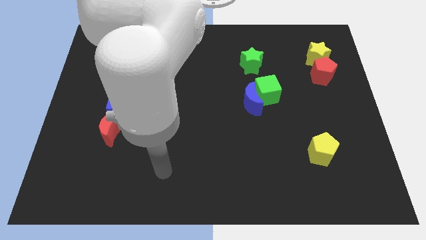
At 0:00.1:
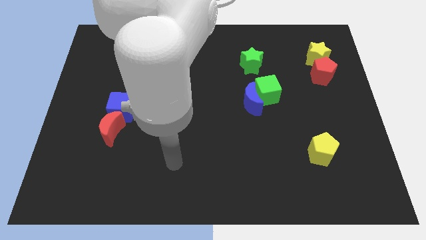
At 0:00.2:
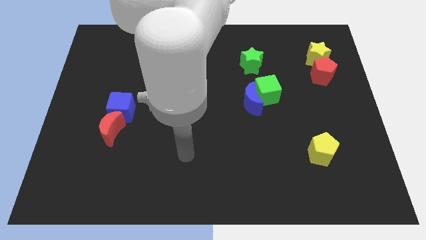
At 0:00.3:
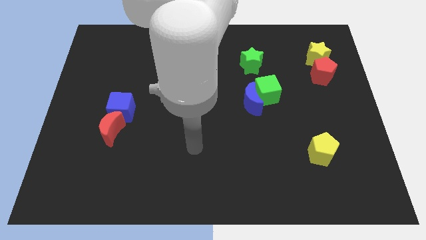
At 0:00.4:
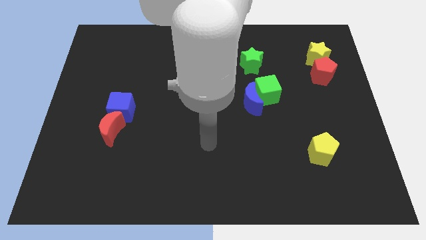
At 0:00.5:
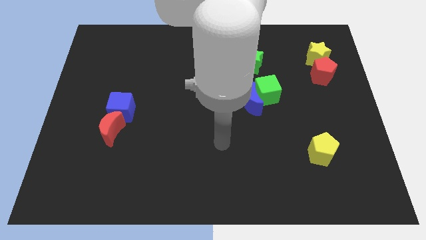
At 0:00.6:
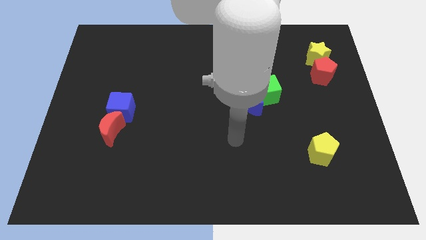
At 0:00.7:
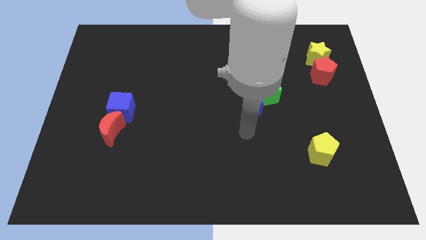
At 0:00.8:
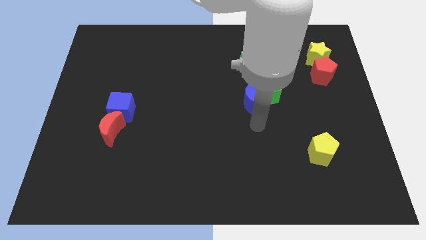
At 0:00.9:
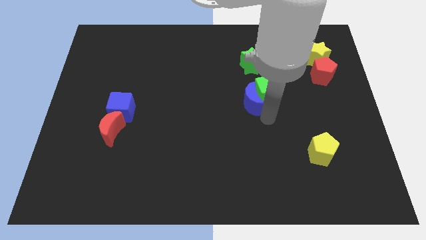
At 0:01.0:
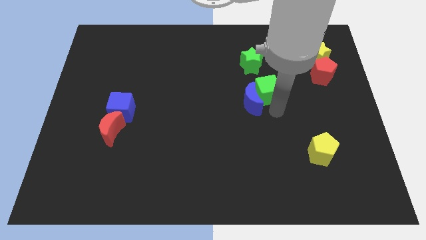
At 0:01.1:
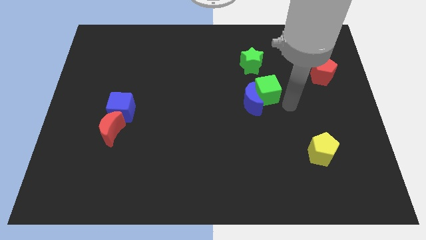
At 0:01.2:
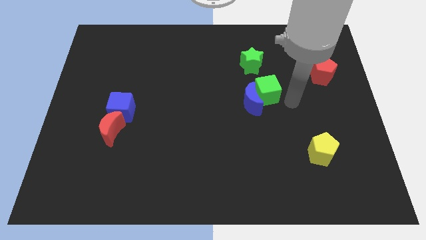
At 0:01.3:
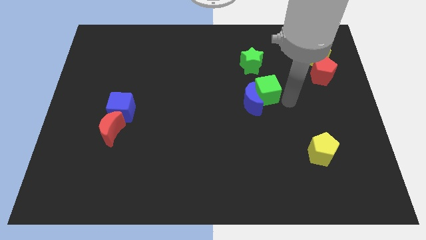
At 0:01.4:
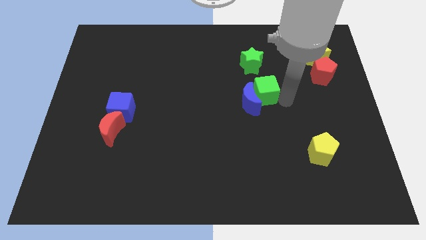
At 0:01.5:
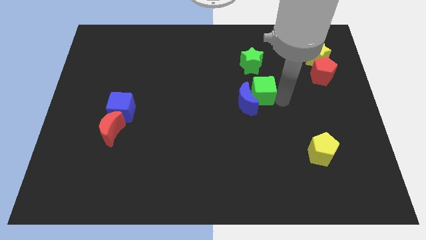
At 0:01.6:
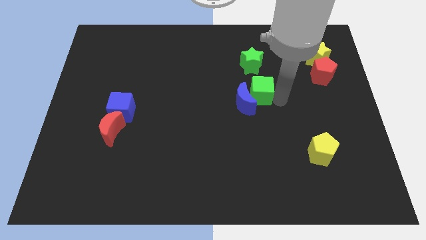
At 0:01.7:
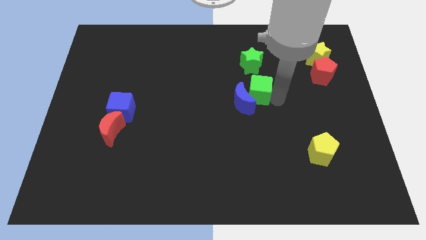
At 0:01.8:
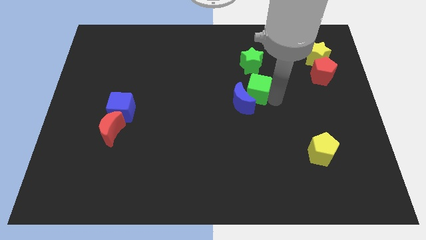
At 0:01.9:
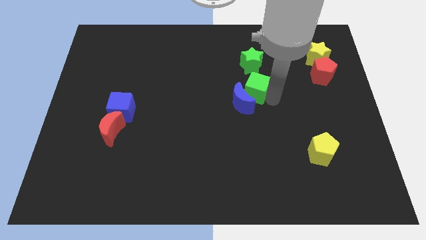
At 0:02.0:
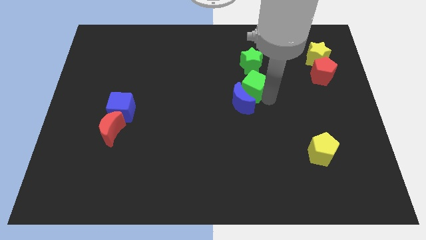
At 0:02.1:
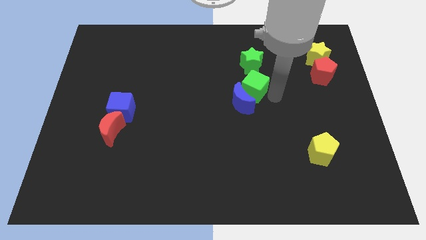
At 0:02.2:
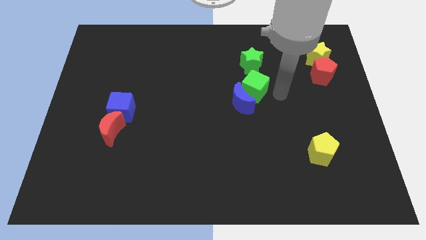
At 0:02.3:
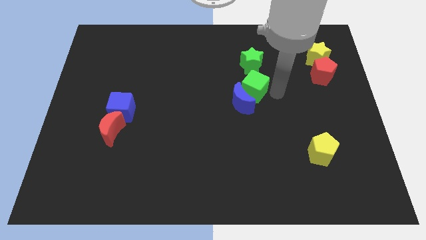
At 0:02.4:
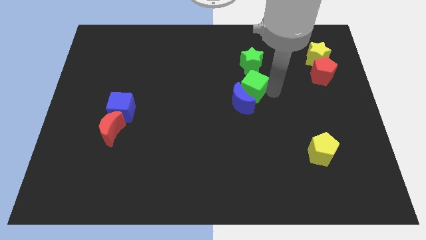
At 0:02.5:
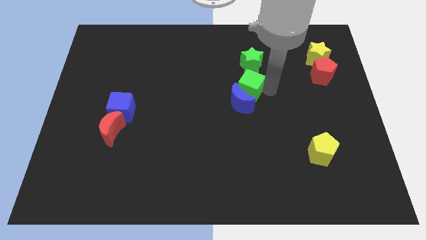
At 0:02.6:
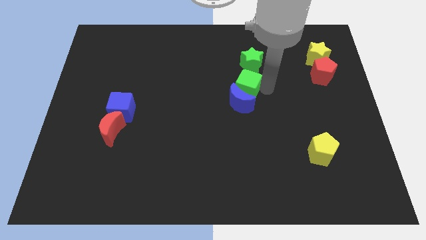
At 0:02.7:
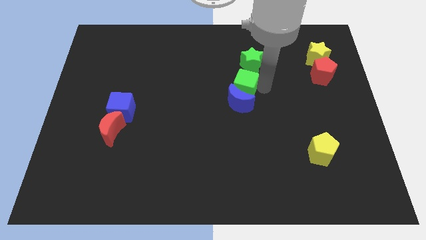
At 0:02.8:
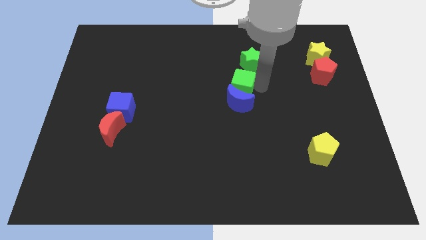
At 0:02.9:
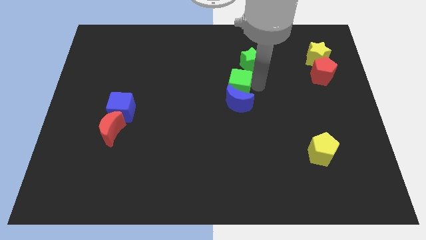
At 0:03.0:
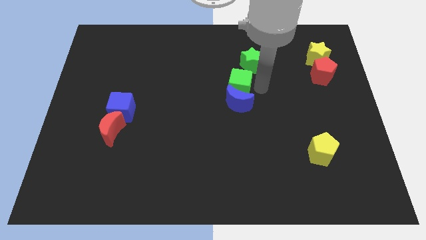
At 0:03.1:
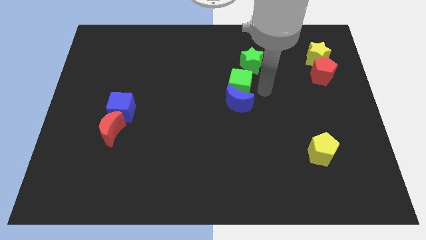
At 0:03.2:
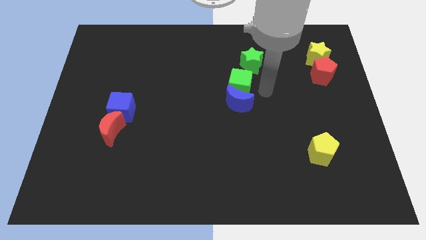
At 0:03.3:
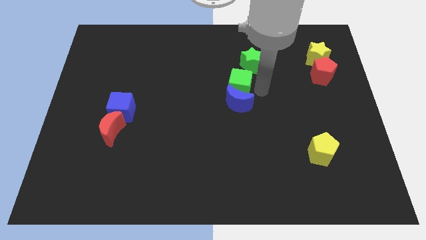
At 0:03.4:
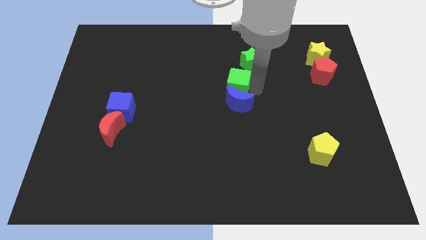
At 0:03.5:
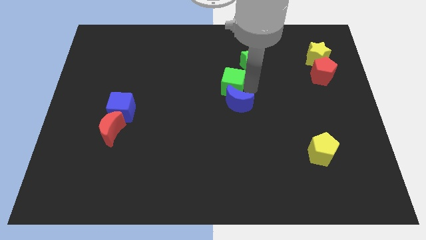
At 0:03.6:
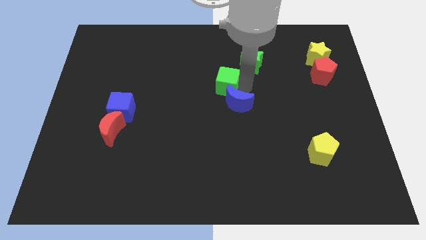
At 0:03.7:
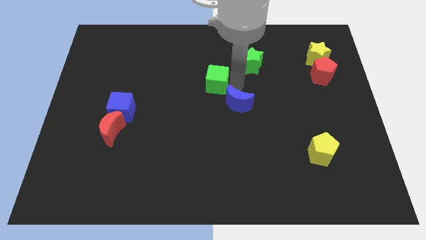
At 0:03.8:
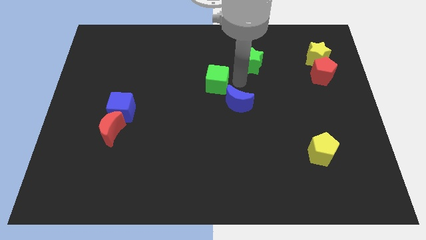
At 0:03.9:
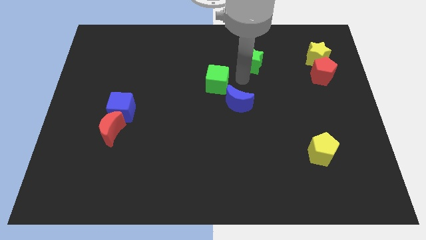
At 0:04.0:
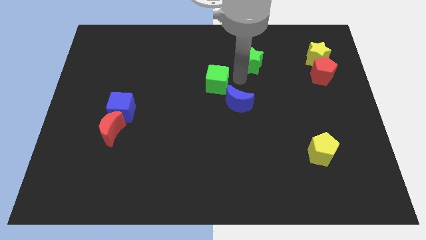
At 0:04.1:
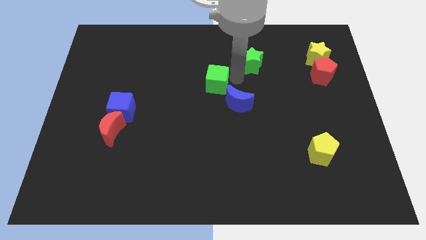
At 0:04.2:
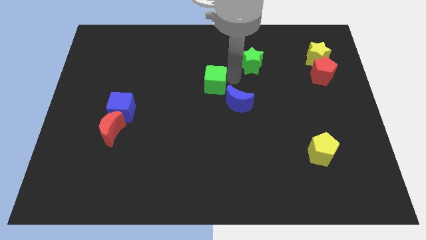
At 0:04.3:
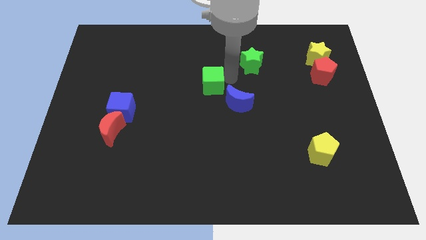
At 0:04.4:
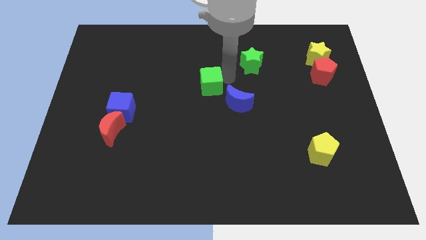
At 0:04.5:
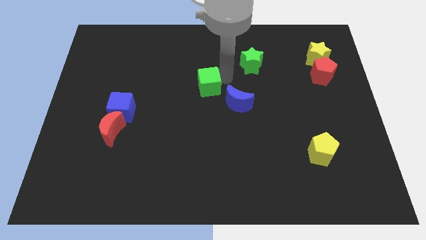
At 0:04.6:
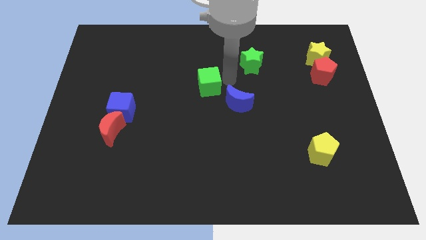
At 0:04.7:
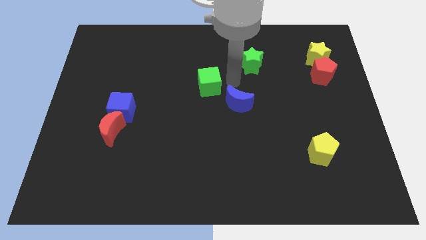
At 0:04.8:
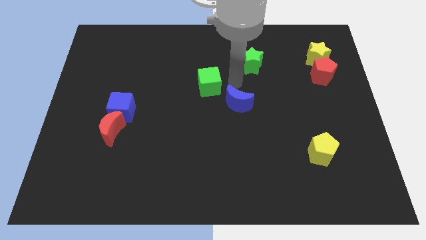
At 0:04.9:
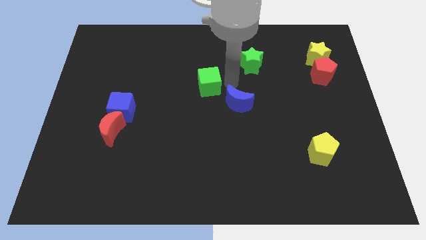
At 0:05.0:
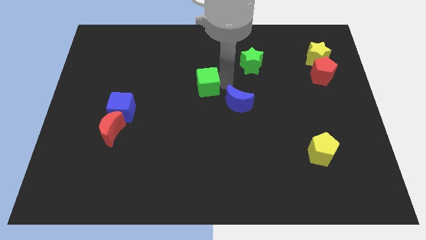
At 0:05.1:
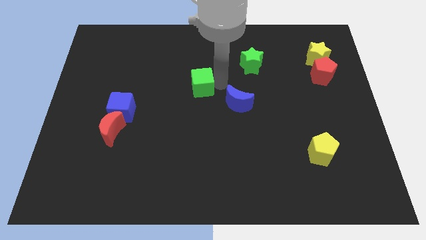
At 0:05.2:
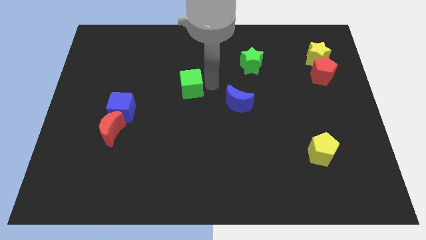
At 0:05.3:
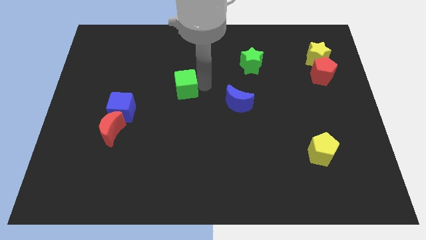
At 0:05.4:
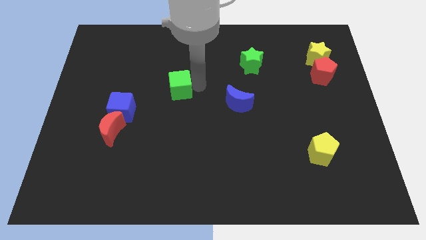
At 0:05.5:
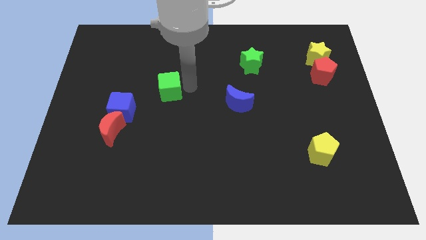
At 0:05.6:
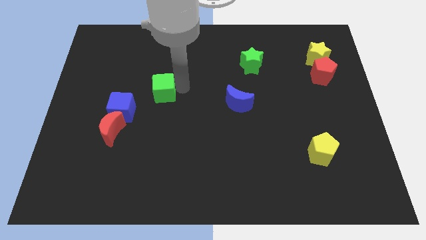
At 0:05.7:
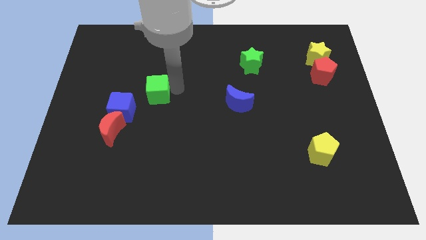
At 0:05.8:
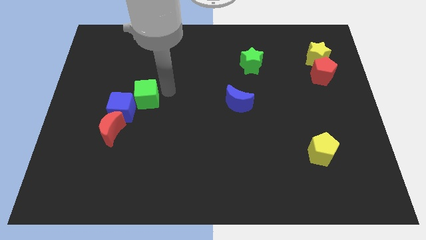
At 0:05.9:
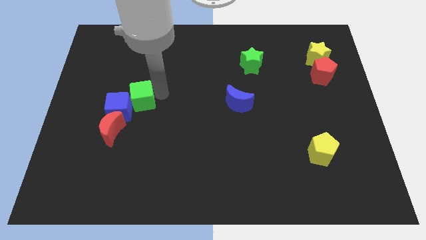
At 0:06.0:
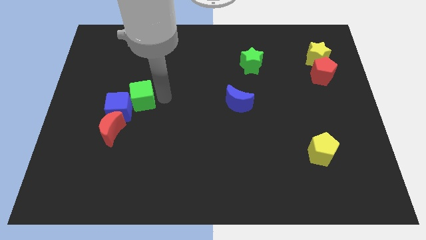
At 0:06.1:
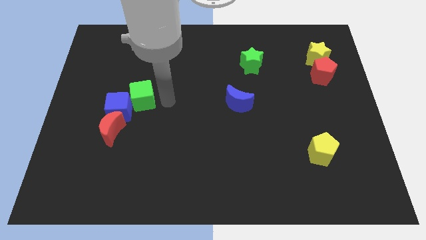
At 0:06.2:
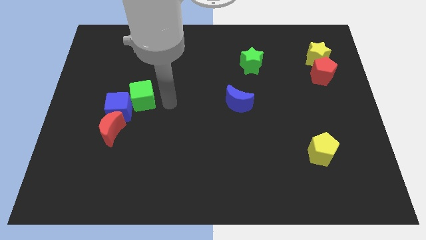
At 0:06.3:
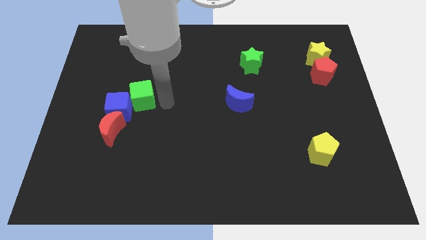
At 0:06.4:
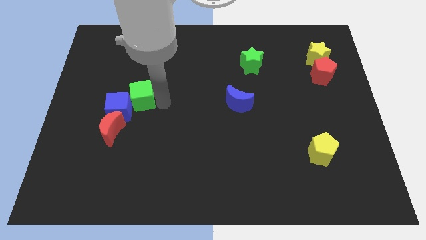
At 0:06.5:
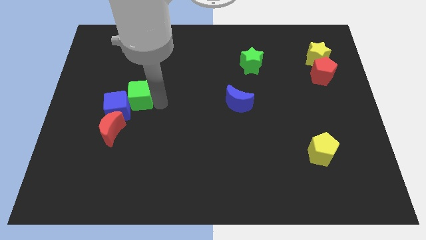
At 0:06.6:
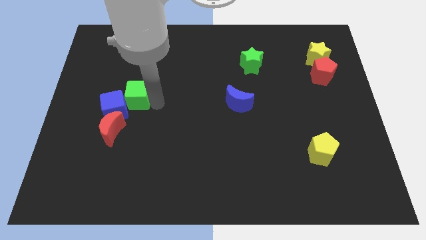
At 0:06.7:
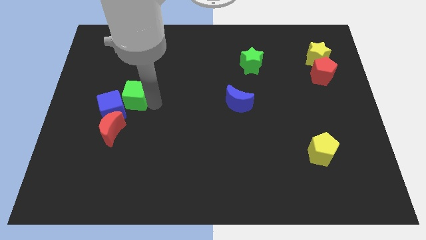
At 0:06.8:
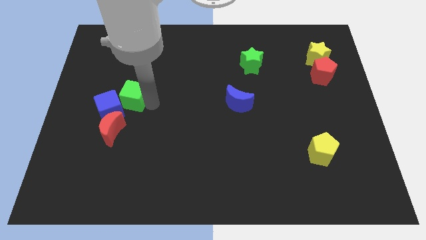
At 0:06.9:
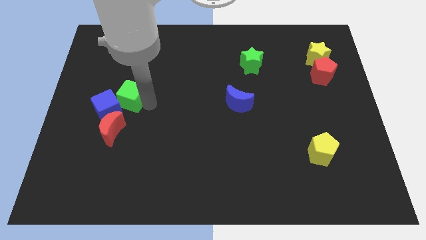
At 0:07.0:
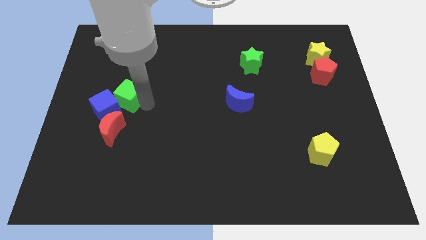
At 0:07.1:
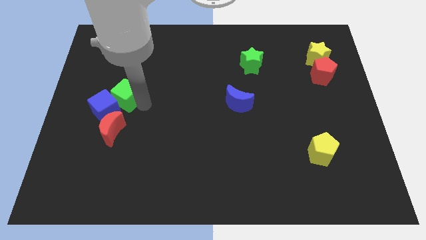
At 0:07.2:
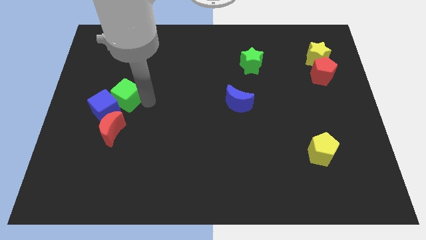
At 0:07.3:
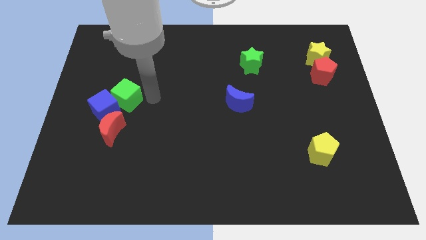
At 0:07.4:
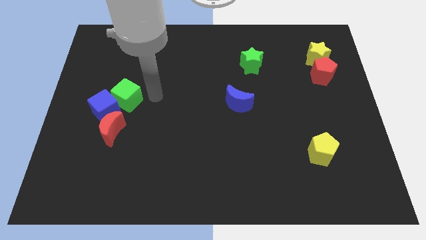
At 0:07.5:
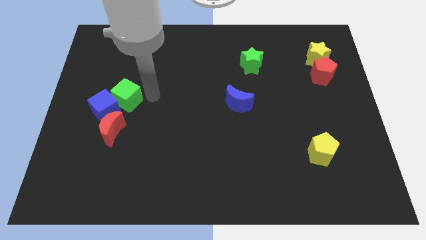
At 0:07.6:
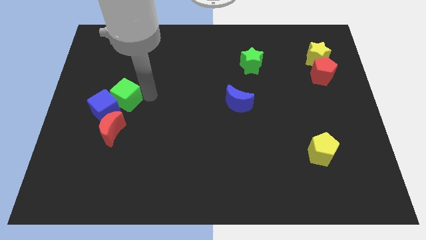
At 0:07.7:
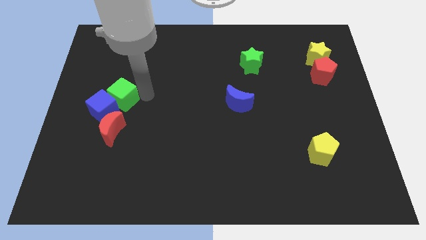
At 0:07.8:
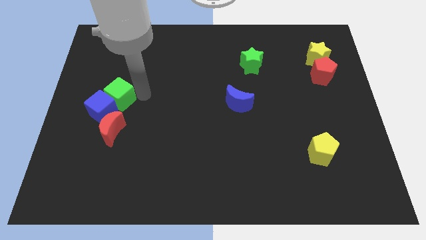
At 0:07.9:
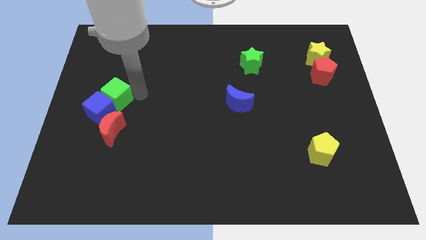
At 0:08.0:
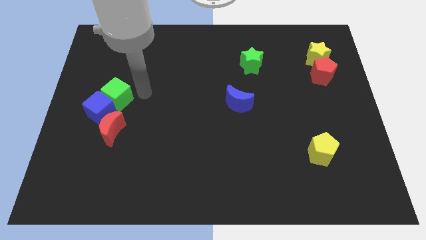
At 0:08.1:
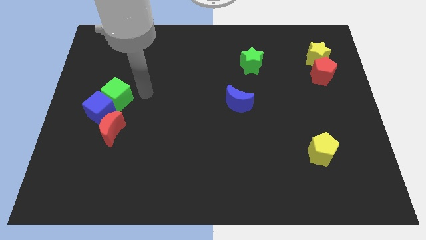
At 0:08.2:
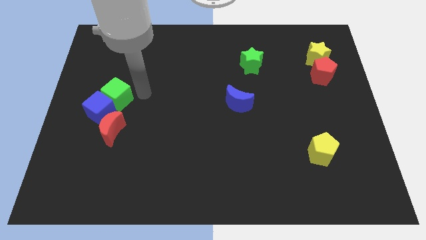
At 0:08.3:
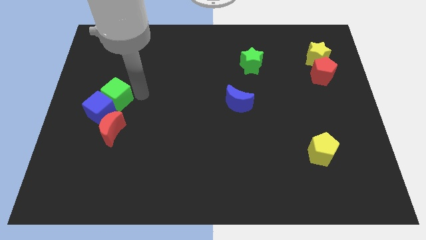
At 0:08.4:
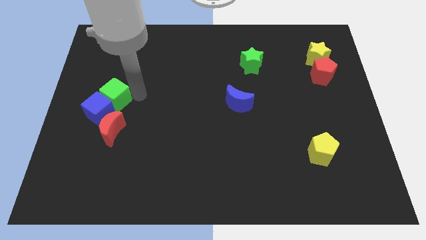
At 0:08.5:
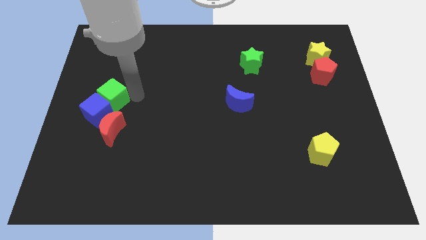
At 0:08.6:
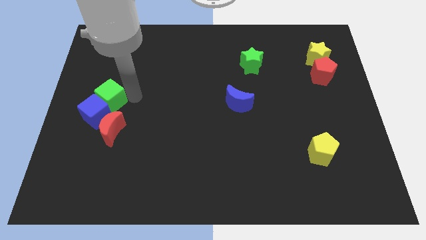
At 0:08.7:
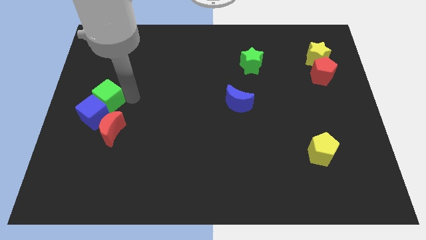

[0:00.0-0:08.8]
move the green cube to the left side
